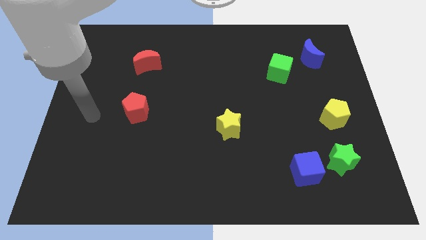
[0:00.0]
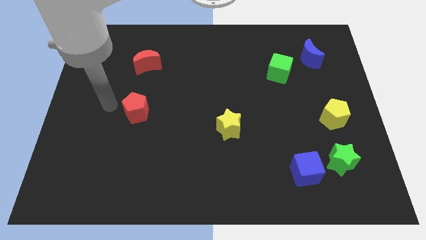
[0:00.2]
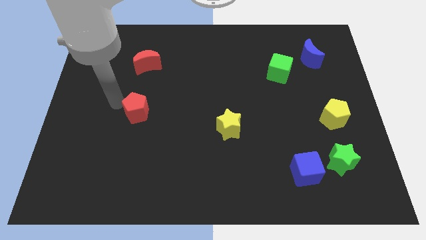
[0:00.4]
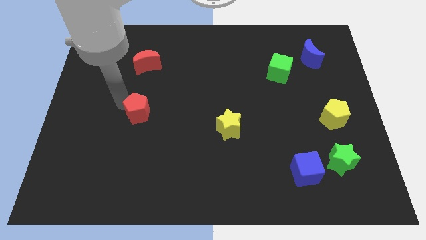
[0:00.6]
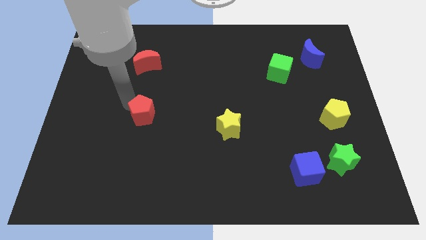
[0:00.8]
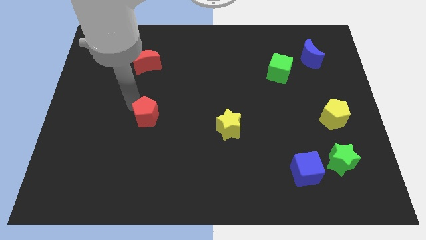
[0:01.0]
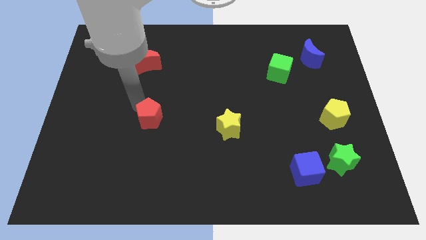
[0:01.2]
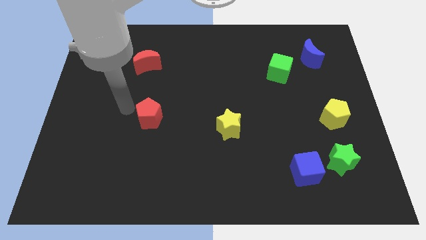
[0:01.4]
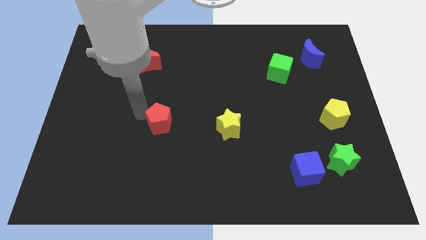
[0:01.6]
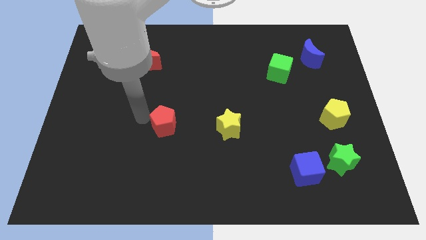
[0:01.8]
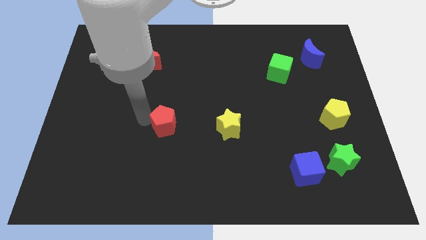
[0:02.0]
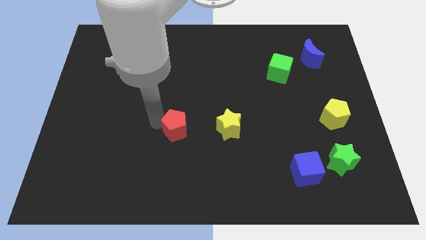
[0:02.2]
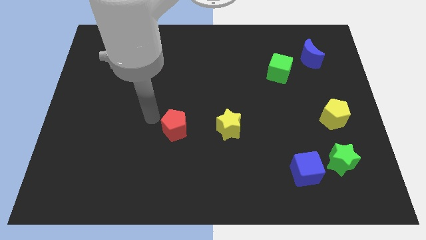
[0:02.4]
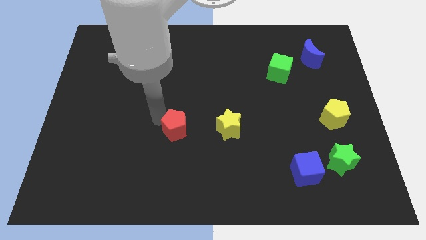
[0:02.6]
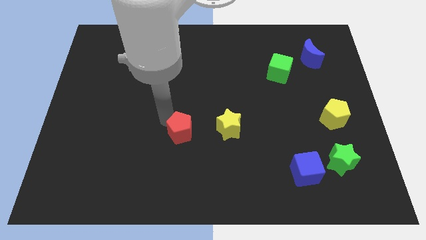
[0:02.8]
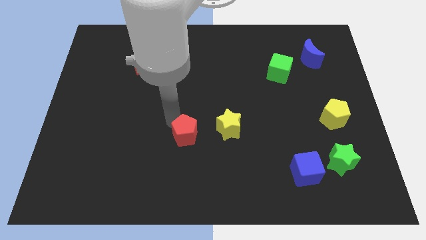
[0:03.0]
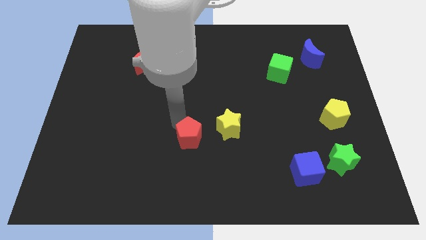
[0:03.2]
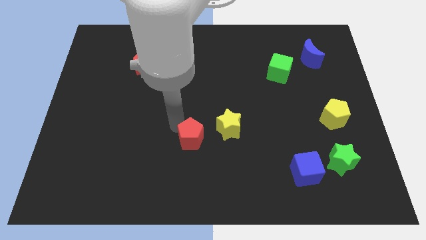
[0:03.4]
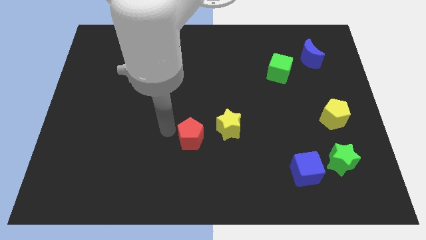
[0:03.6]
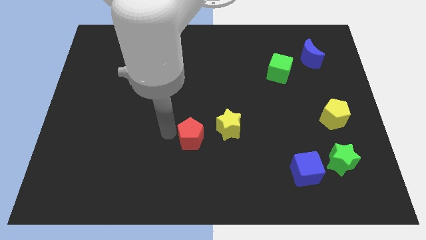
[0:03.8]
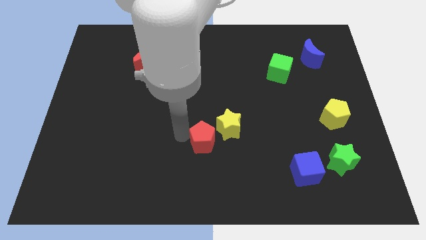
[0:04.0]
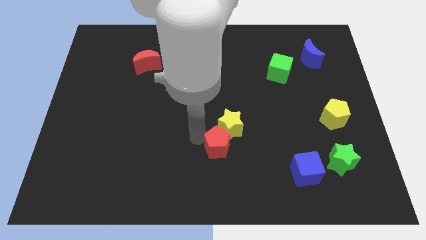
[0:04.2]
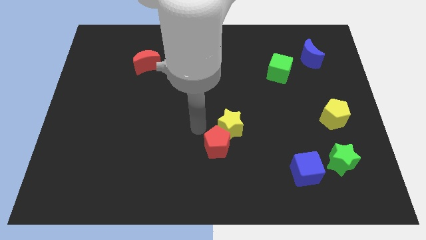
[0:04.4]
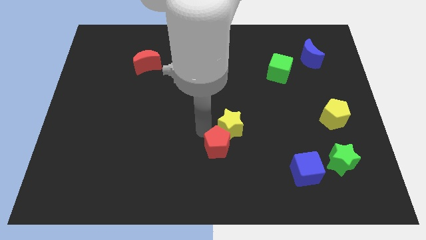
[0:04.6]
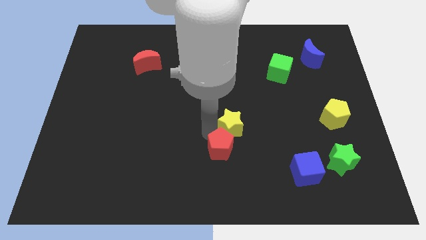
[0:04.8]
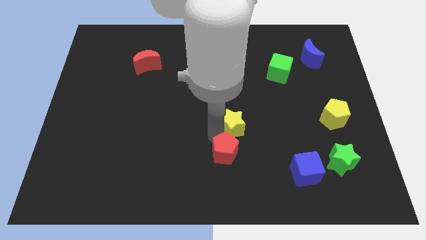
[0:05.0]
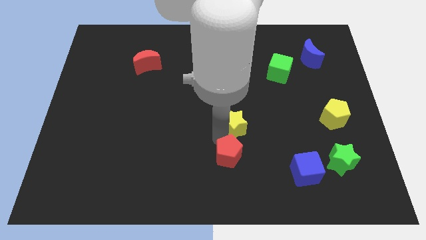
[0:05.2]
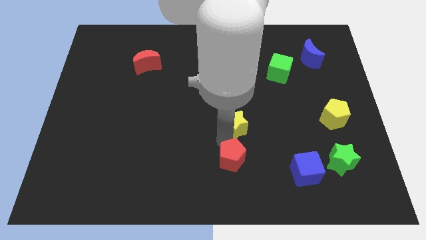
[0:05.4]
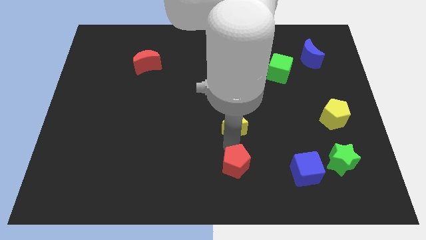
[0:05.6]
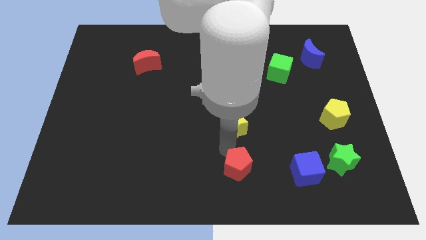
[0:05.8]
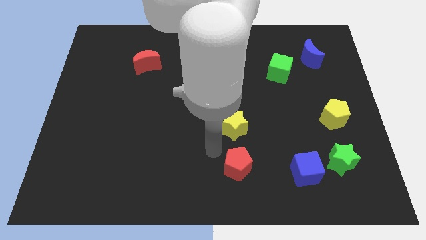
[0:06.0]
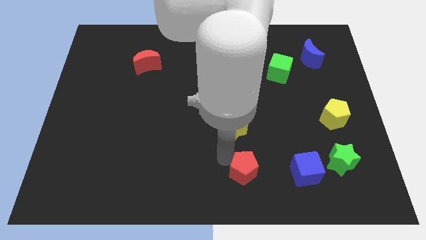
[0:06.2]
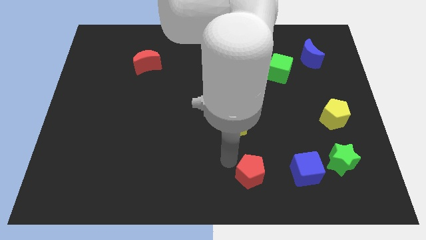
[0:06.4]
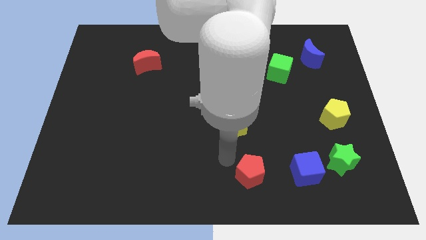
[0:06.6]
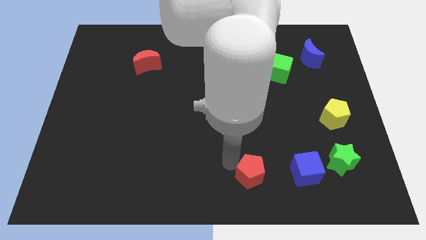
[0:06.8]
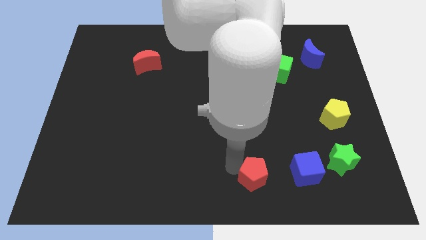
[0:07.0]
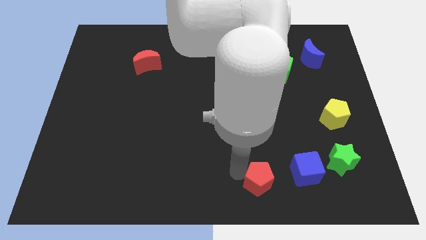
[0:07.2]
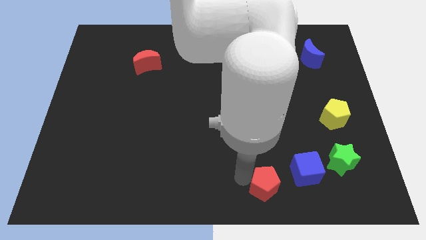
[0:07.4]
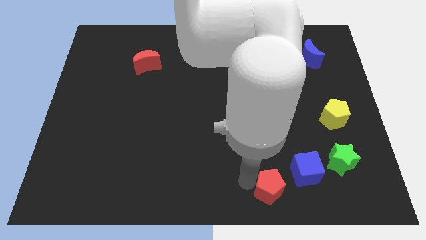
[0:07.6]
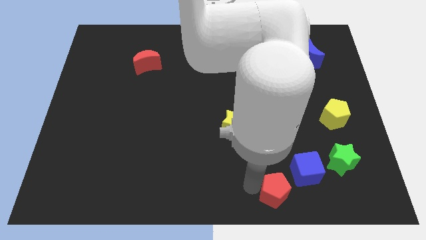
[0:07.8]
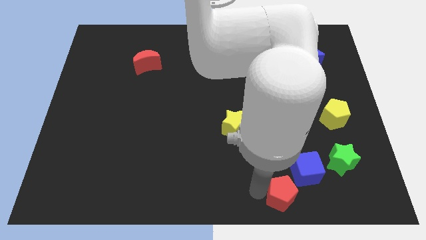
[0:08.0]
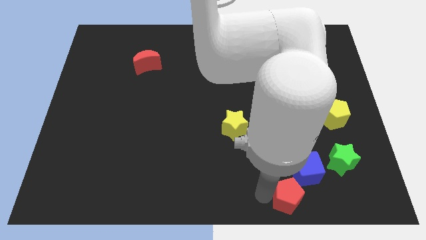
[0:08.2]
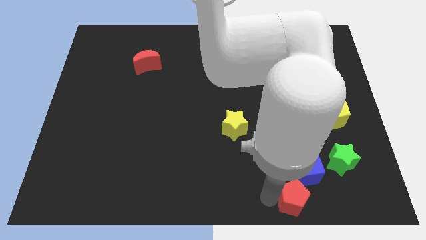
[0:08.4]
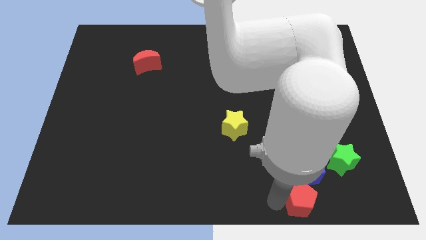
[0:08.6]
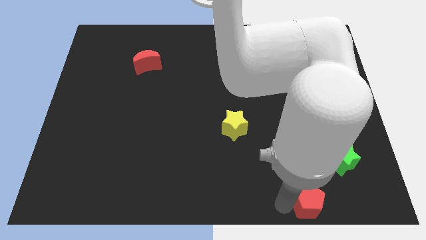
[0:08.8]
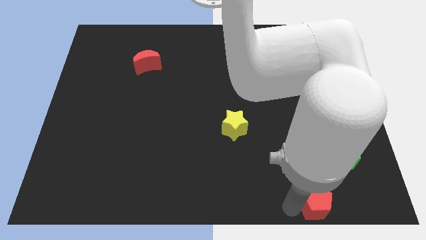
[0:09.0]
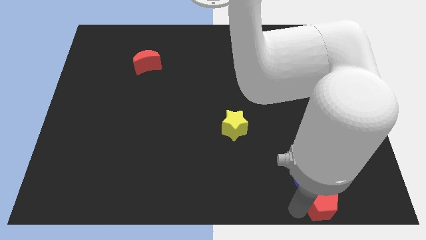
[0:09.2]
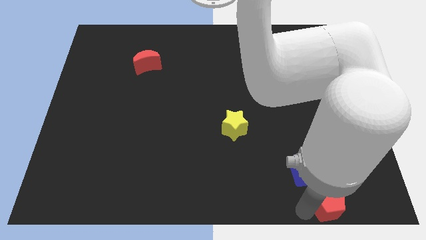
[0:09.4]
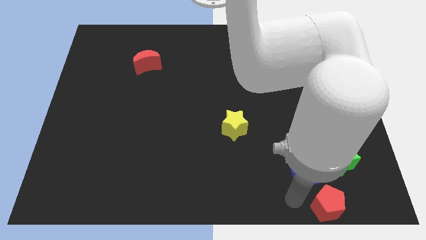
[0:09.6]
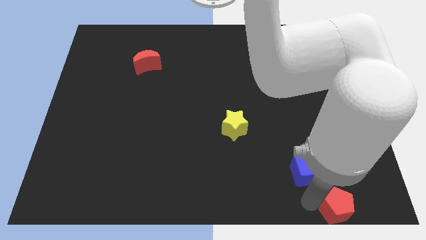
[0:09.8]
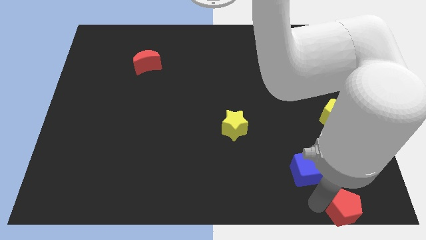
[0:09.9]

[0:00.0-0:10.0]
put the red pentagon to the bottom right of the board

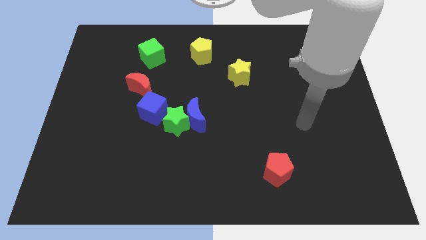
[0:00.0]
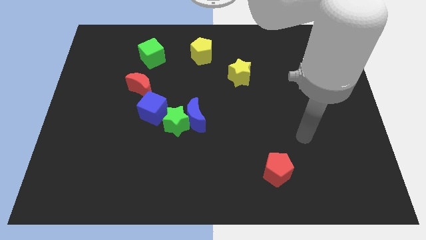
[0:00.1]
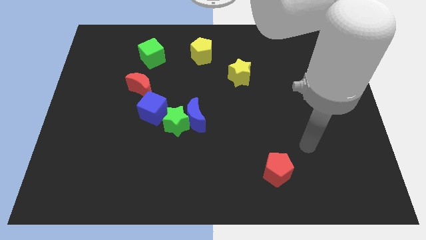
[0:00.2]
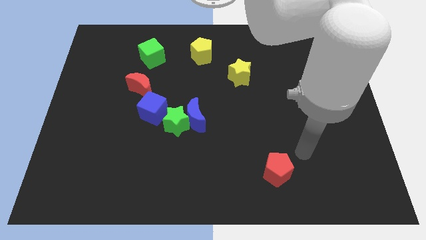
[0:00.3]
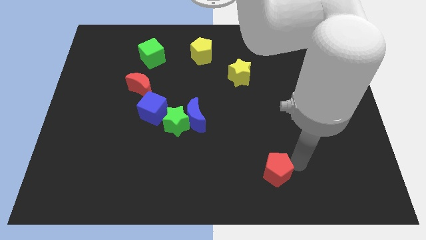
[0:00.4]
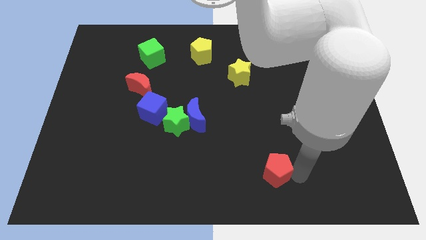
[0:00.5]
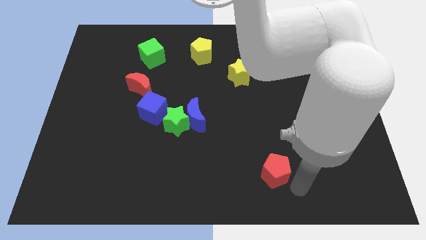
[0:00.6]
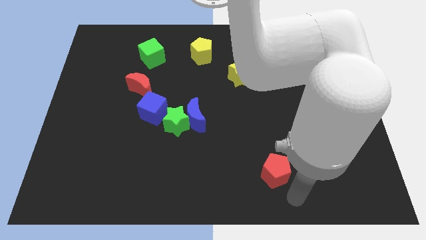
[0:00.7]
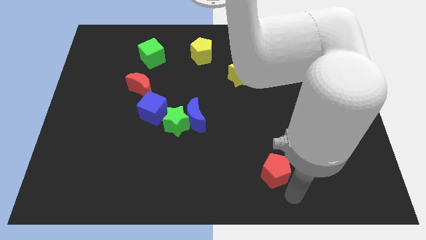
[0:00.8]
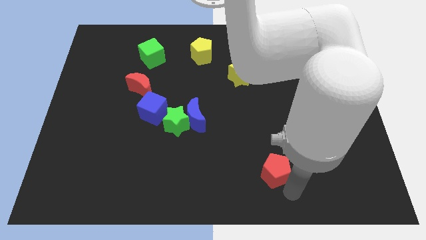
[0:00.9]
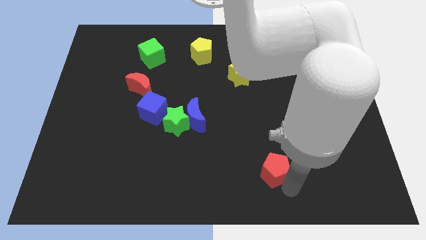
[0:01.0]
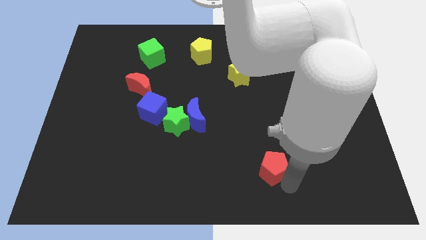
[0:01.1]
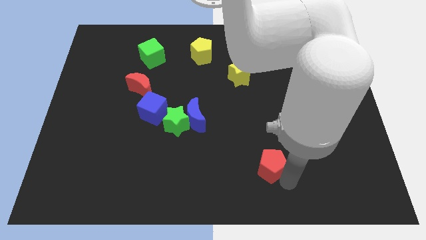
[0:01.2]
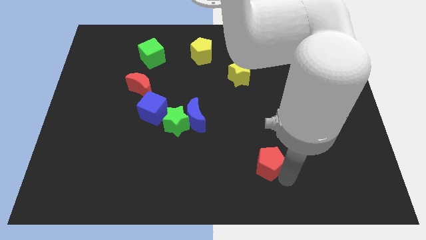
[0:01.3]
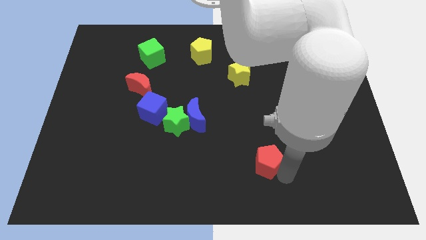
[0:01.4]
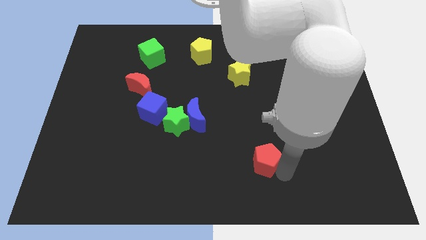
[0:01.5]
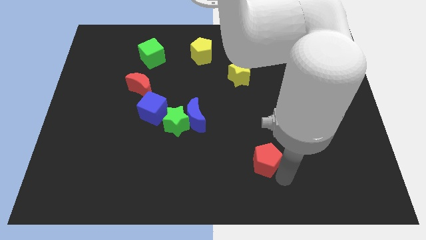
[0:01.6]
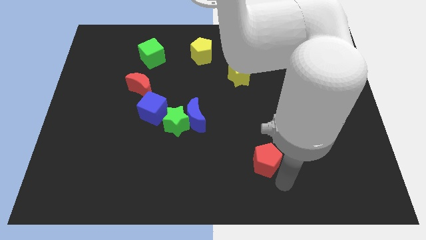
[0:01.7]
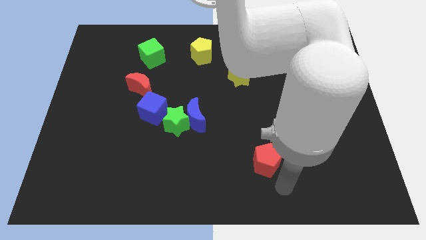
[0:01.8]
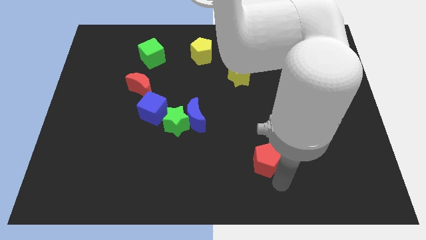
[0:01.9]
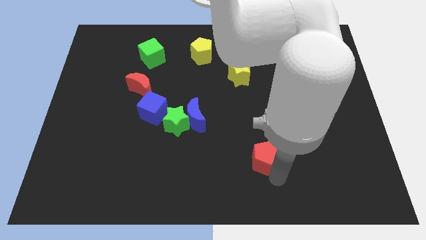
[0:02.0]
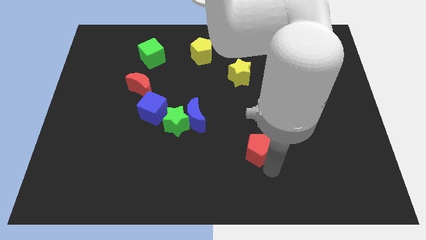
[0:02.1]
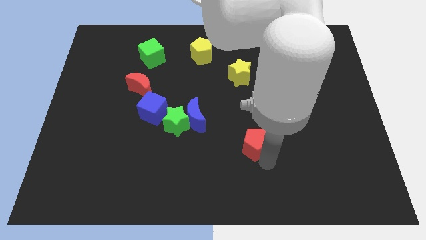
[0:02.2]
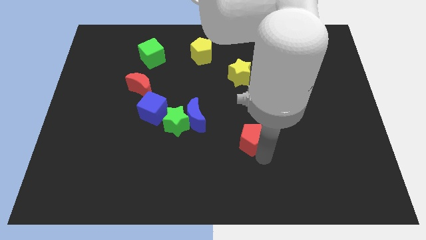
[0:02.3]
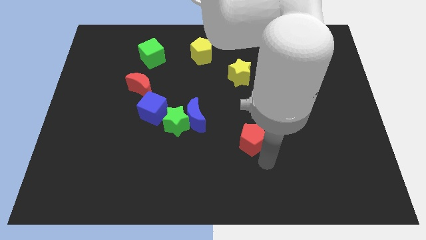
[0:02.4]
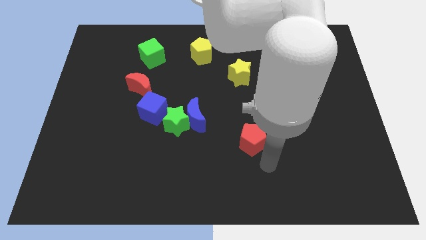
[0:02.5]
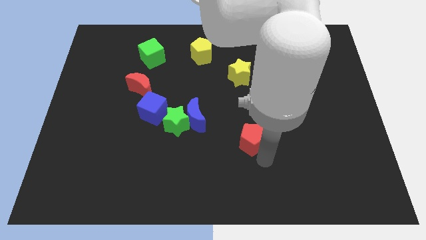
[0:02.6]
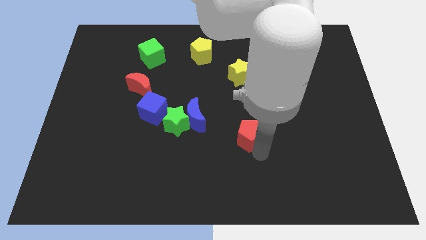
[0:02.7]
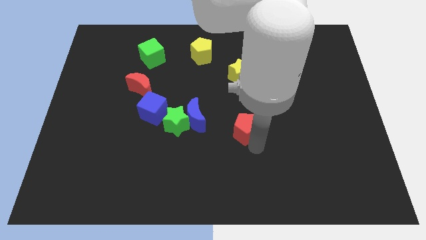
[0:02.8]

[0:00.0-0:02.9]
move the red pentagon to the middle of the board
